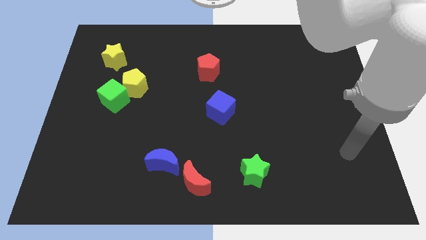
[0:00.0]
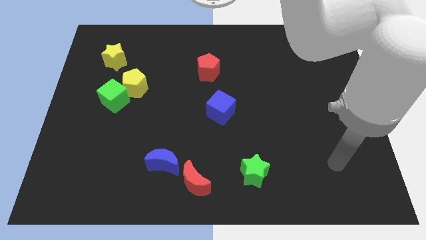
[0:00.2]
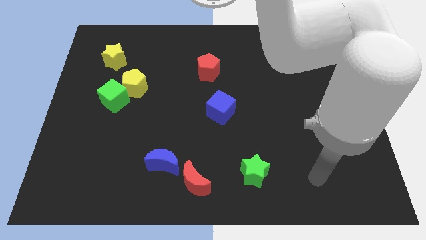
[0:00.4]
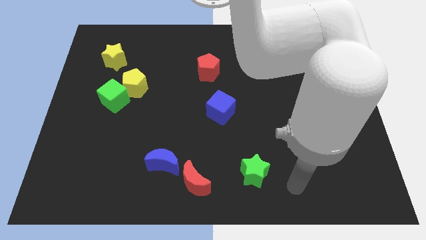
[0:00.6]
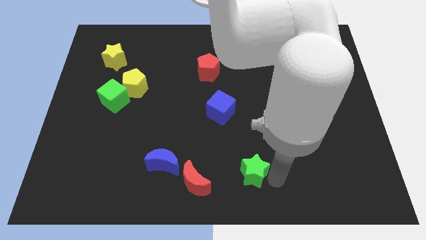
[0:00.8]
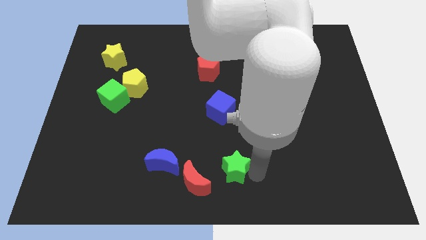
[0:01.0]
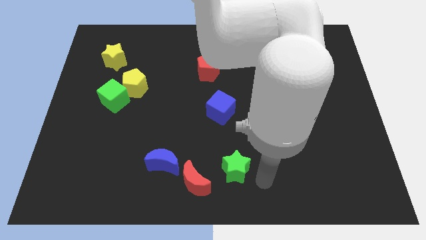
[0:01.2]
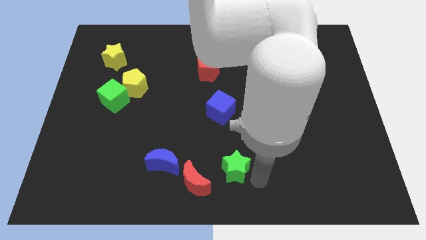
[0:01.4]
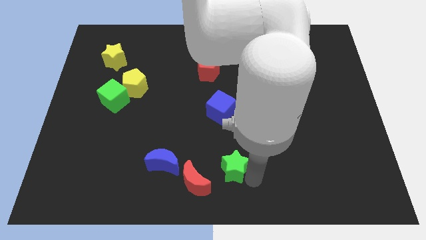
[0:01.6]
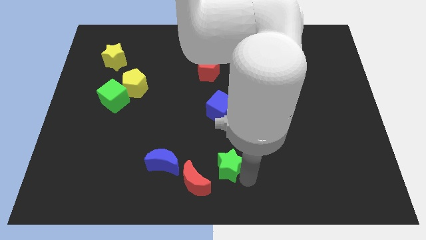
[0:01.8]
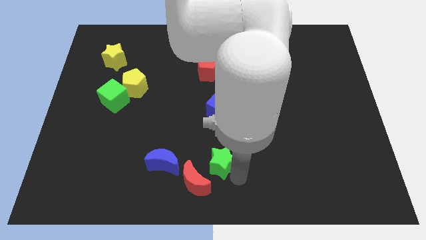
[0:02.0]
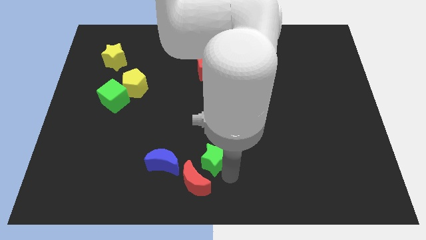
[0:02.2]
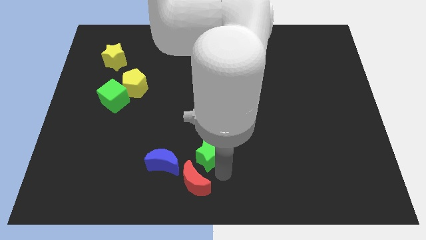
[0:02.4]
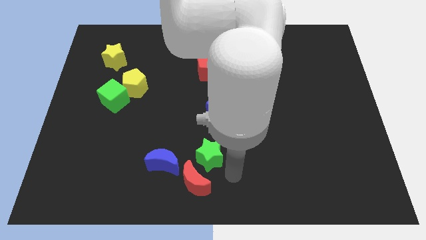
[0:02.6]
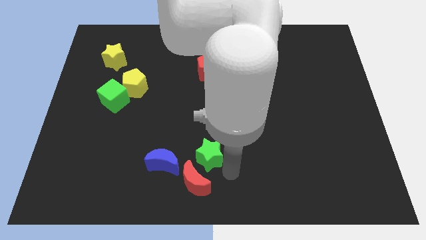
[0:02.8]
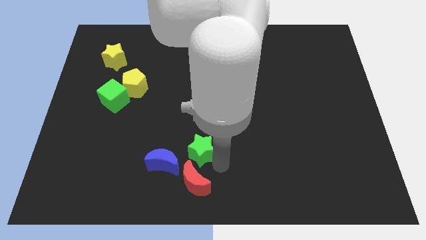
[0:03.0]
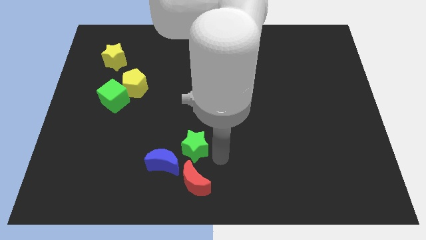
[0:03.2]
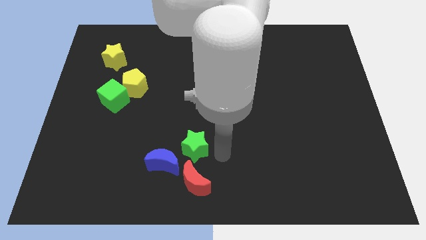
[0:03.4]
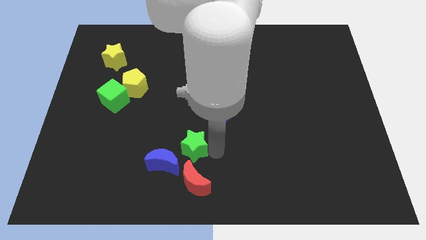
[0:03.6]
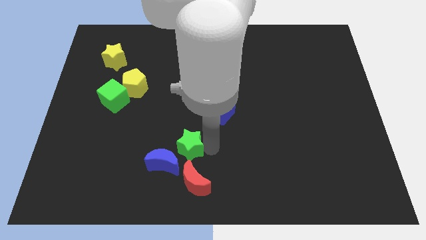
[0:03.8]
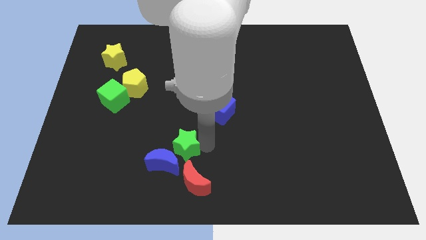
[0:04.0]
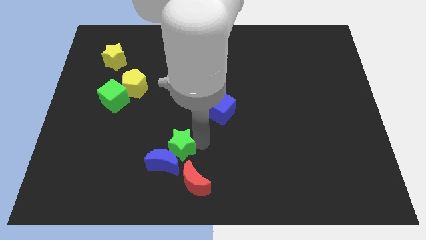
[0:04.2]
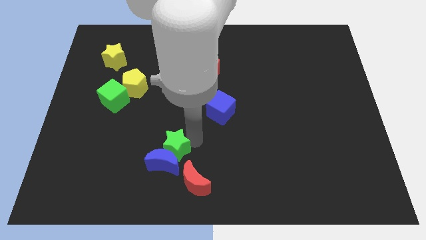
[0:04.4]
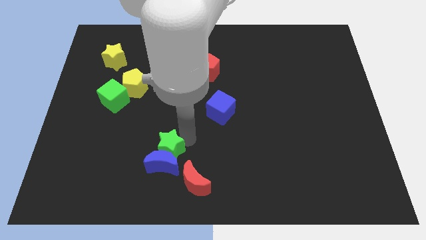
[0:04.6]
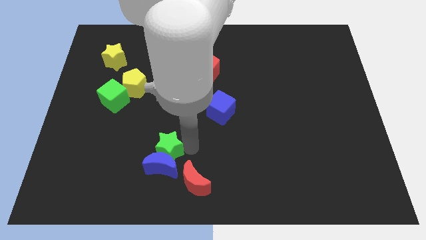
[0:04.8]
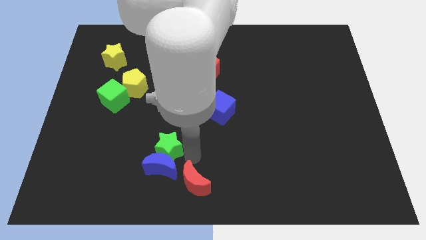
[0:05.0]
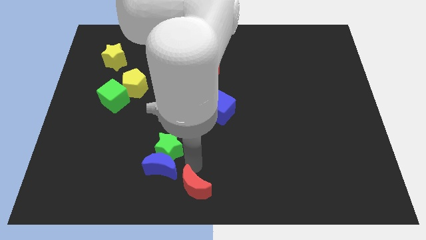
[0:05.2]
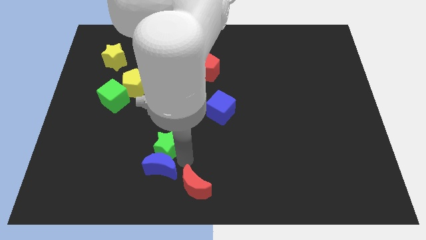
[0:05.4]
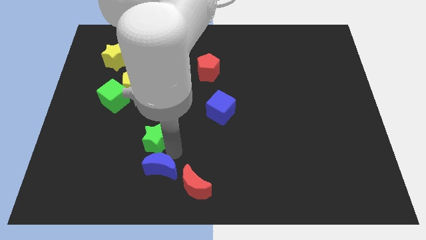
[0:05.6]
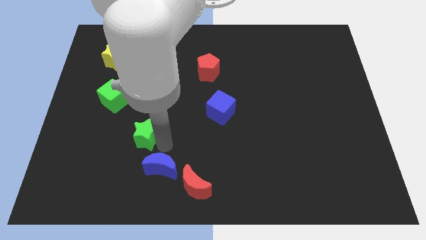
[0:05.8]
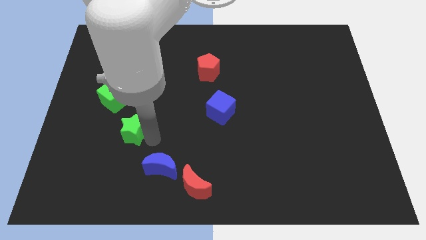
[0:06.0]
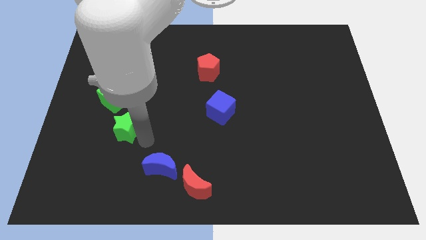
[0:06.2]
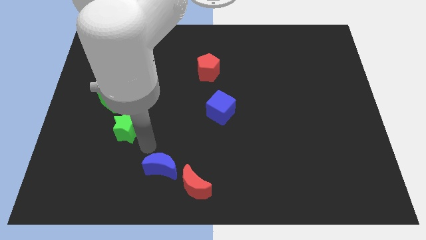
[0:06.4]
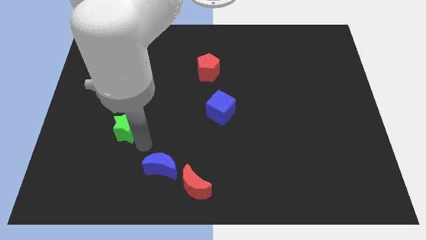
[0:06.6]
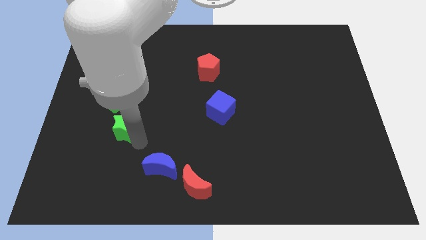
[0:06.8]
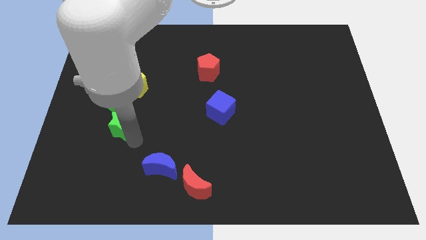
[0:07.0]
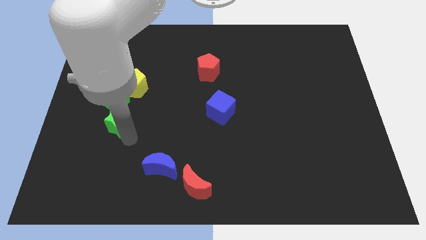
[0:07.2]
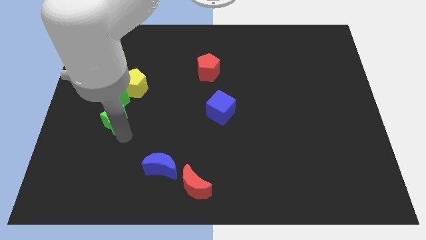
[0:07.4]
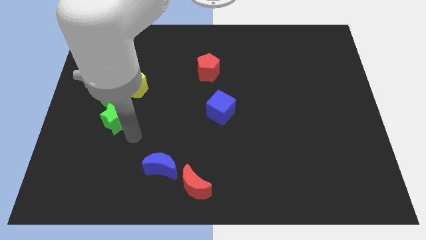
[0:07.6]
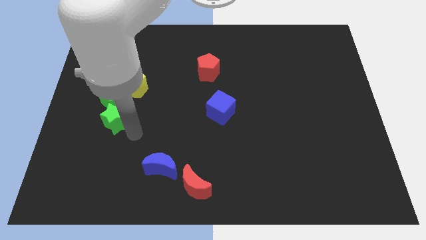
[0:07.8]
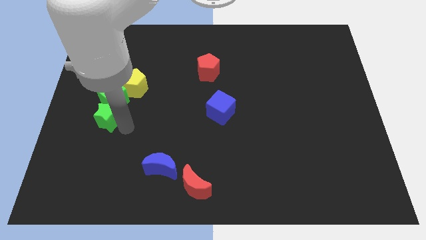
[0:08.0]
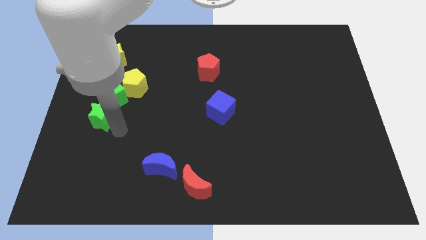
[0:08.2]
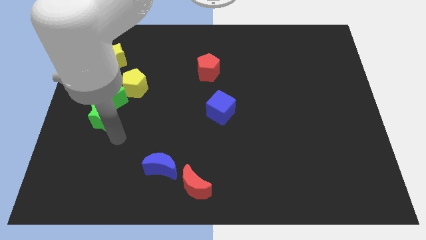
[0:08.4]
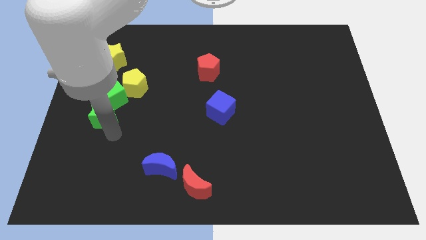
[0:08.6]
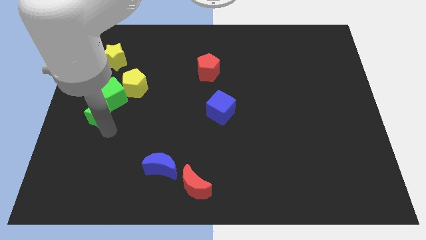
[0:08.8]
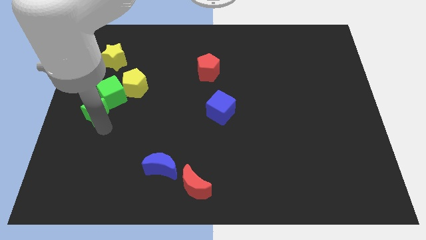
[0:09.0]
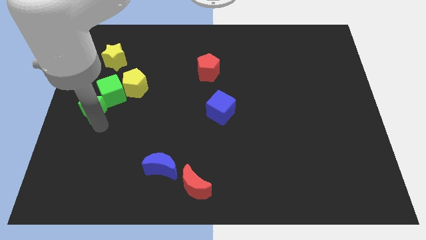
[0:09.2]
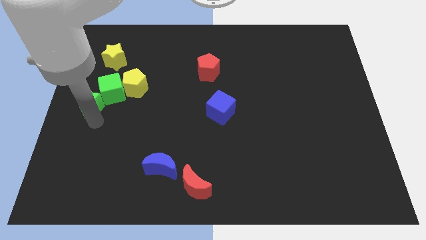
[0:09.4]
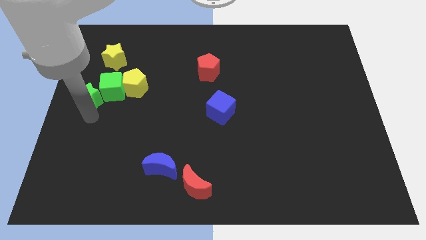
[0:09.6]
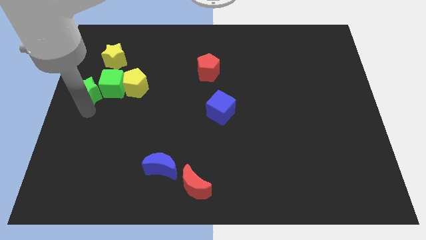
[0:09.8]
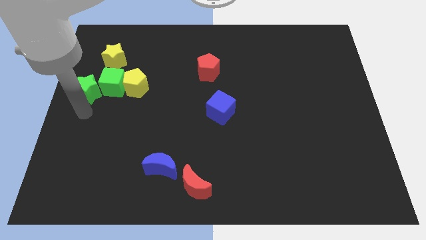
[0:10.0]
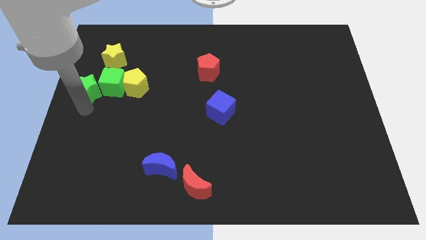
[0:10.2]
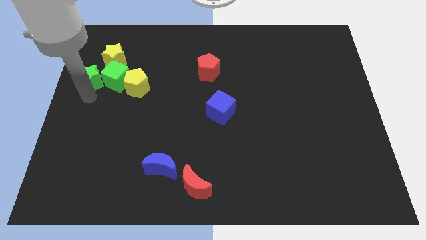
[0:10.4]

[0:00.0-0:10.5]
move the green star to the top left side of the green cube

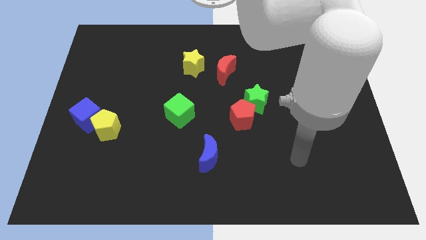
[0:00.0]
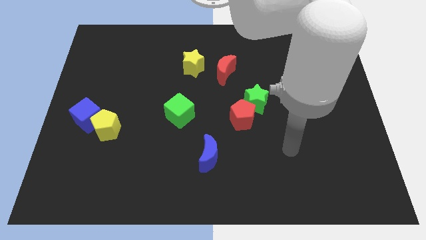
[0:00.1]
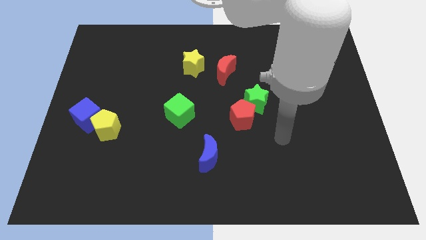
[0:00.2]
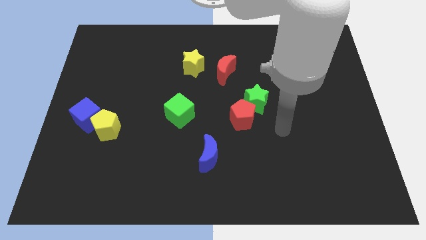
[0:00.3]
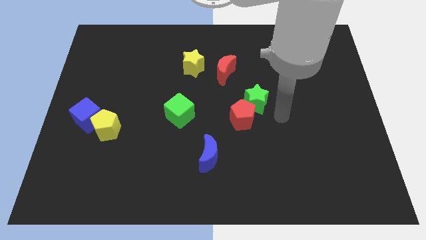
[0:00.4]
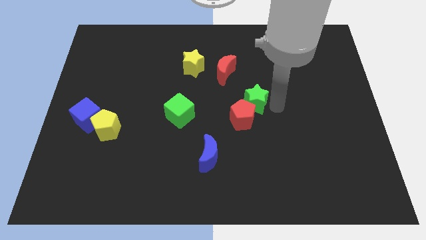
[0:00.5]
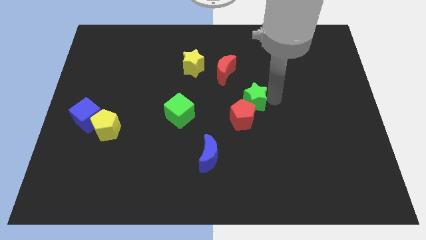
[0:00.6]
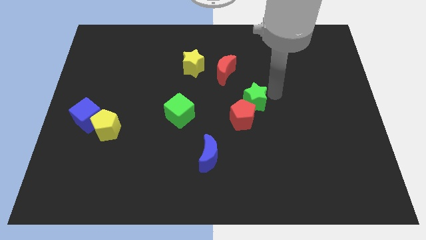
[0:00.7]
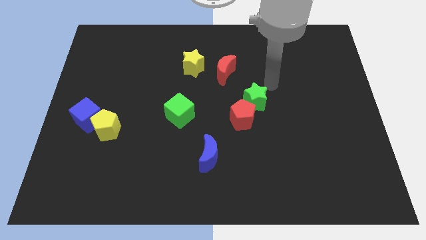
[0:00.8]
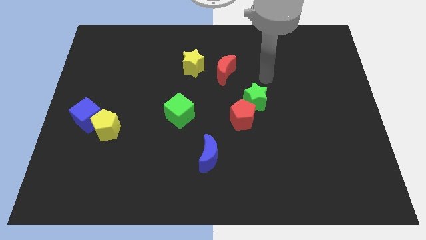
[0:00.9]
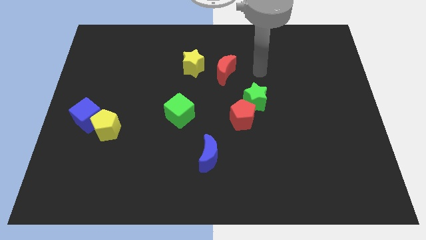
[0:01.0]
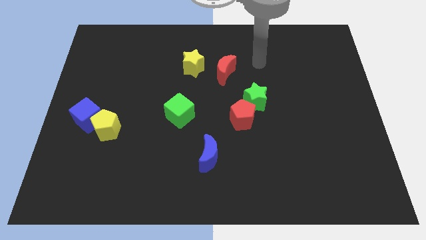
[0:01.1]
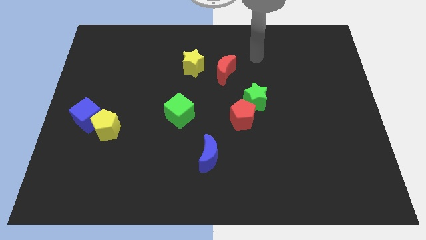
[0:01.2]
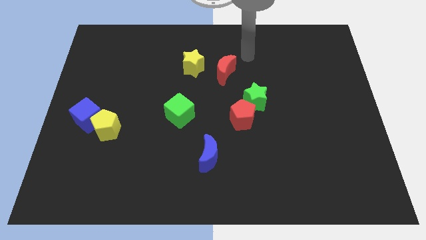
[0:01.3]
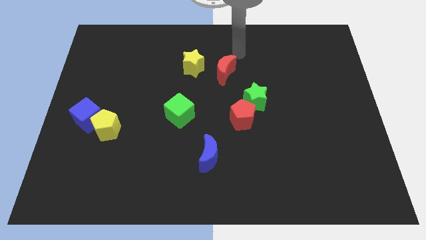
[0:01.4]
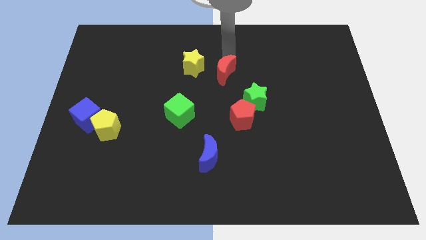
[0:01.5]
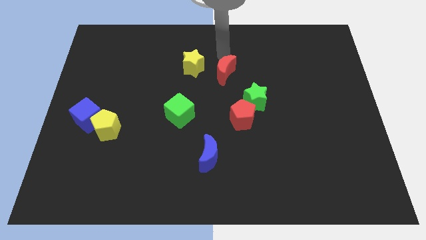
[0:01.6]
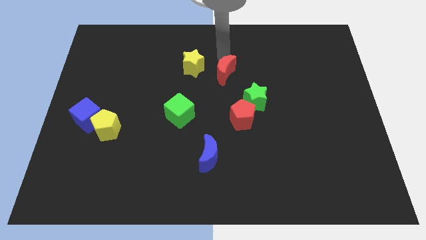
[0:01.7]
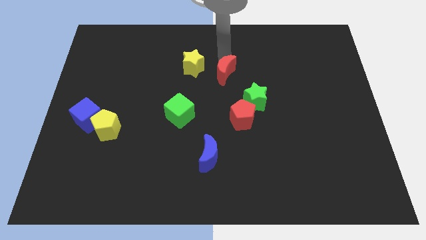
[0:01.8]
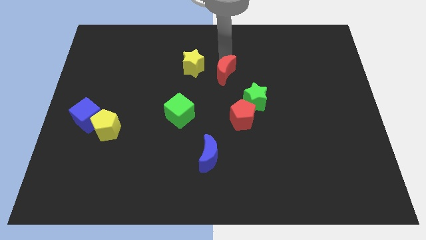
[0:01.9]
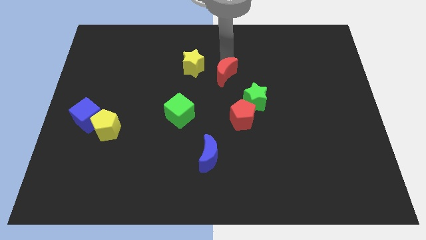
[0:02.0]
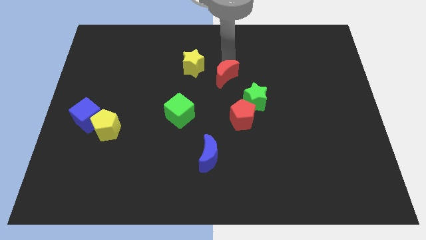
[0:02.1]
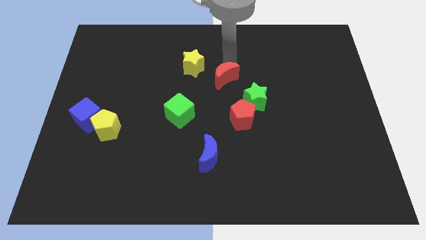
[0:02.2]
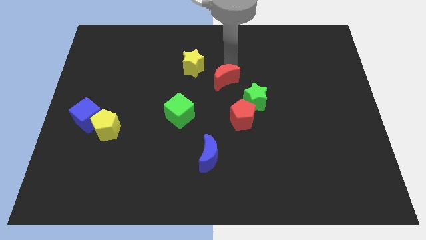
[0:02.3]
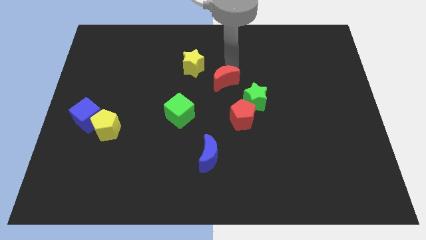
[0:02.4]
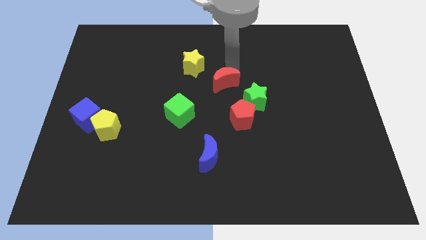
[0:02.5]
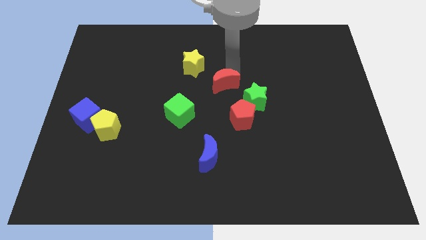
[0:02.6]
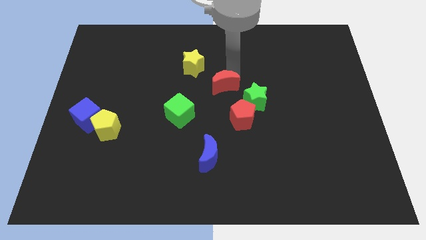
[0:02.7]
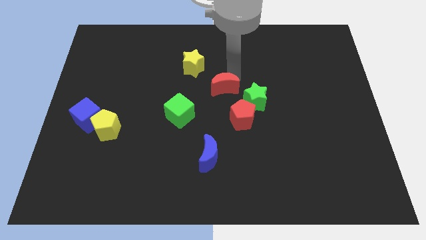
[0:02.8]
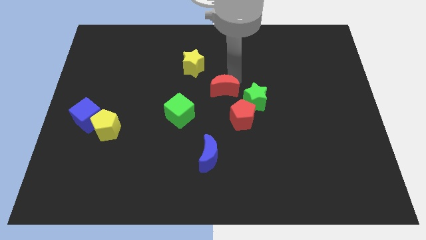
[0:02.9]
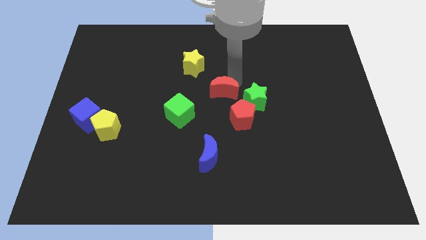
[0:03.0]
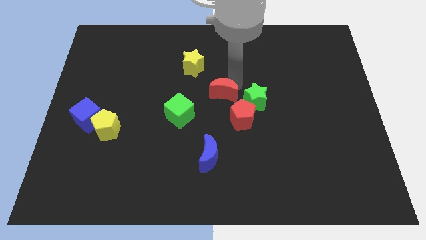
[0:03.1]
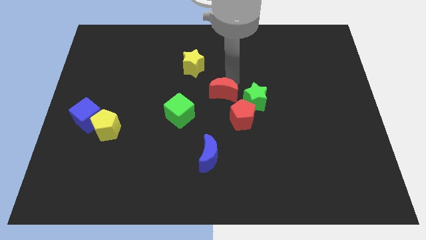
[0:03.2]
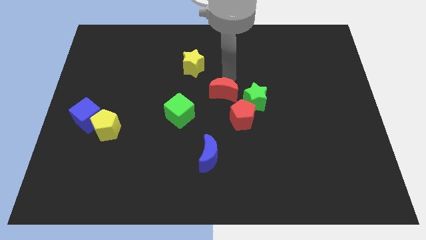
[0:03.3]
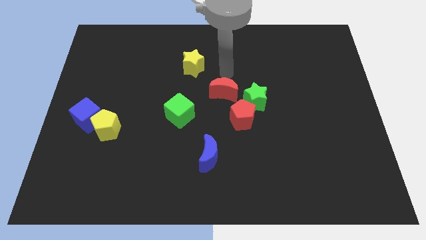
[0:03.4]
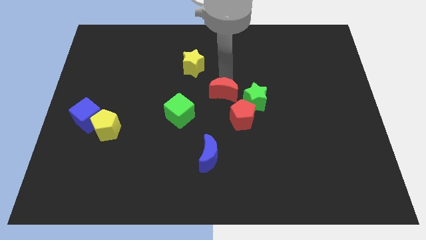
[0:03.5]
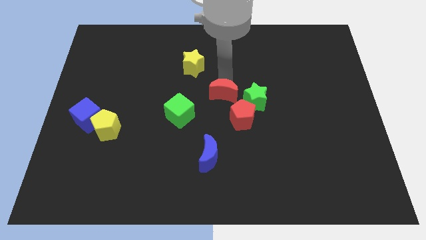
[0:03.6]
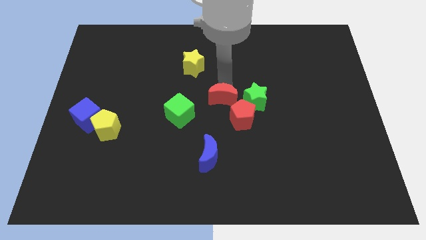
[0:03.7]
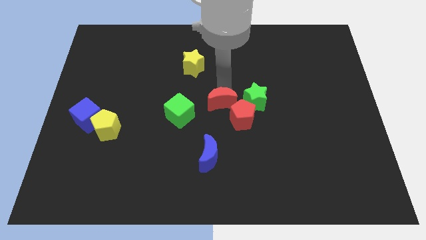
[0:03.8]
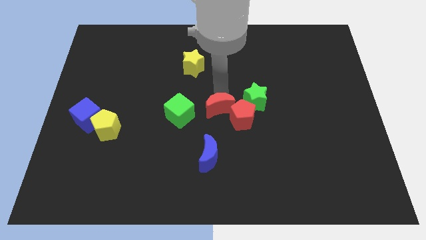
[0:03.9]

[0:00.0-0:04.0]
slide the red moon to the bottom left of the green star
